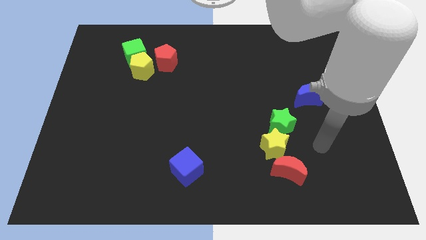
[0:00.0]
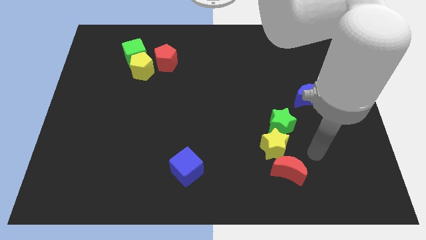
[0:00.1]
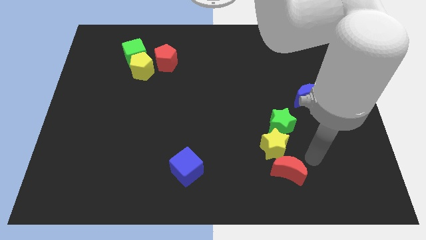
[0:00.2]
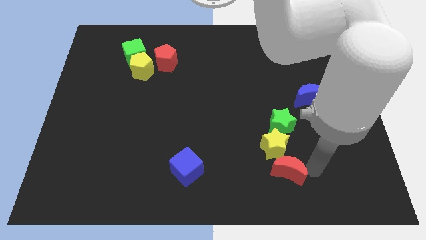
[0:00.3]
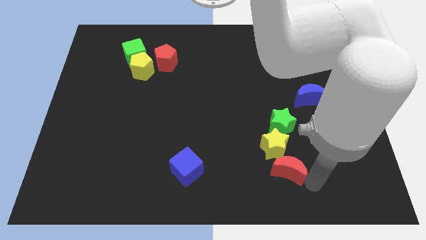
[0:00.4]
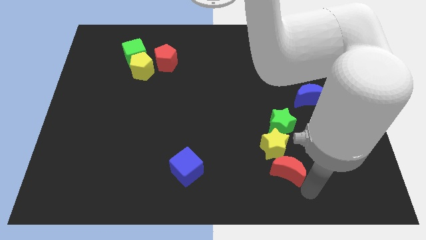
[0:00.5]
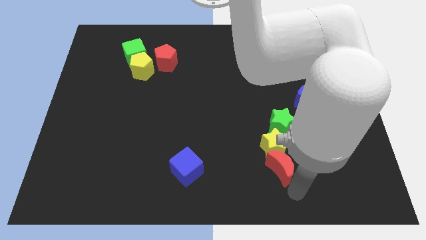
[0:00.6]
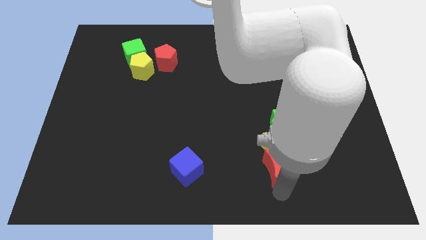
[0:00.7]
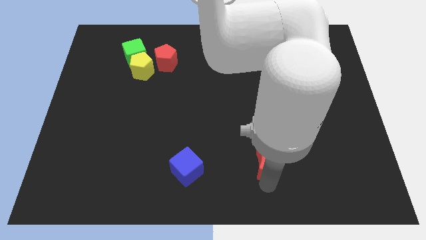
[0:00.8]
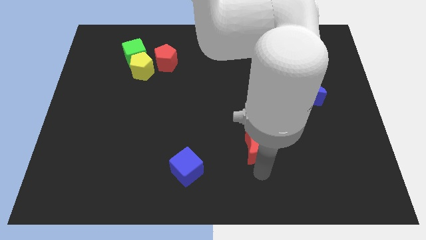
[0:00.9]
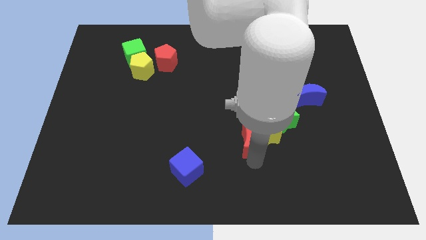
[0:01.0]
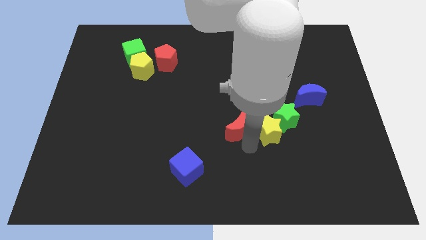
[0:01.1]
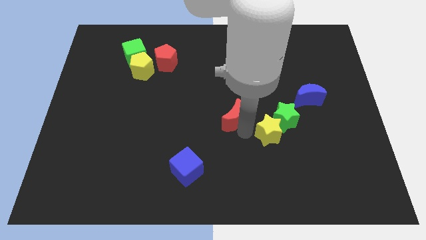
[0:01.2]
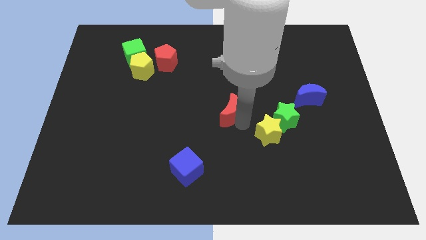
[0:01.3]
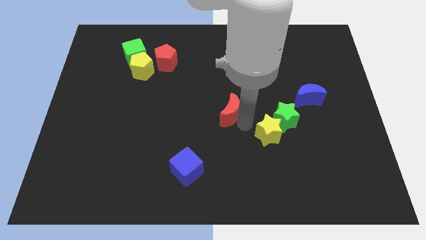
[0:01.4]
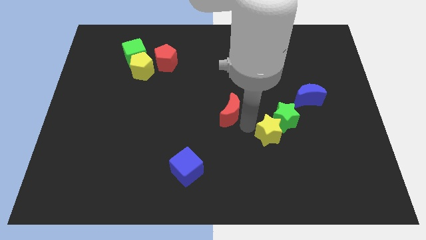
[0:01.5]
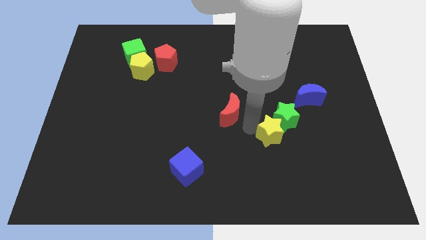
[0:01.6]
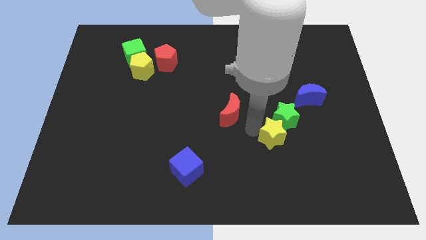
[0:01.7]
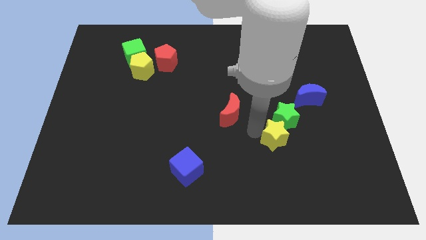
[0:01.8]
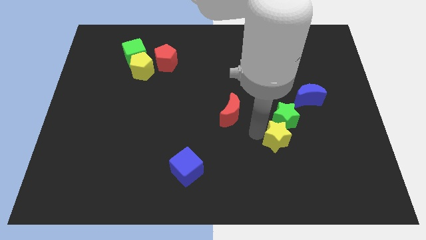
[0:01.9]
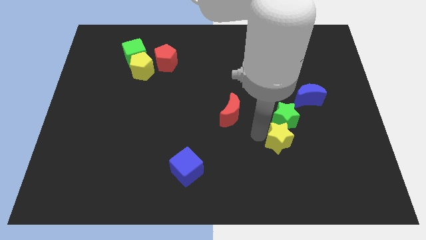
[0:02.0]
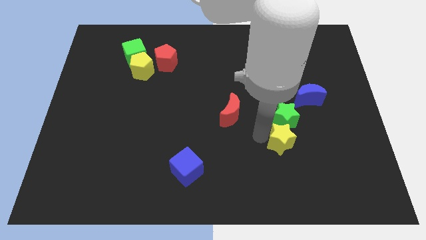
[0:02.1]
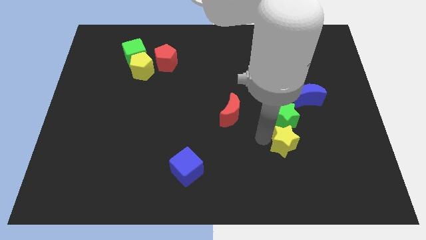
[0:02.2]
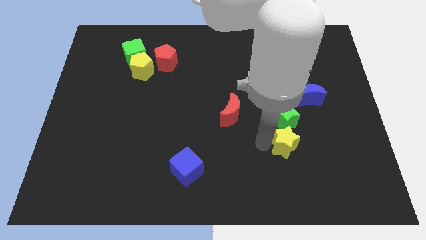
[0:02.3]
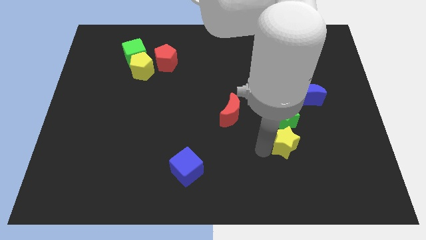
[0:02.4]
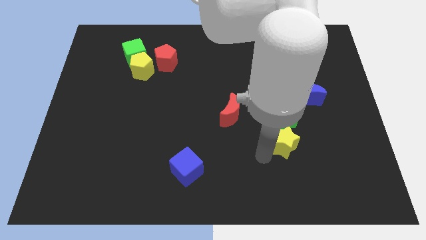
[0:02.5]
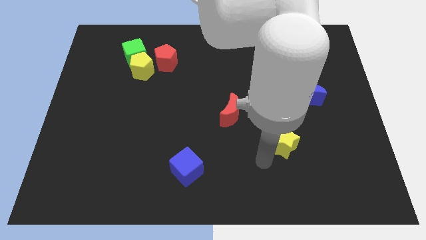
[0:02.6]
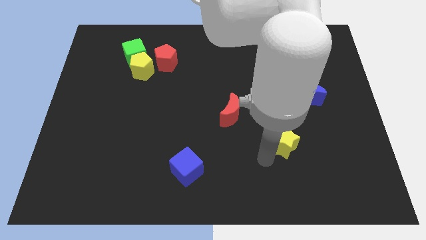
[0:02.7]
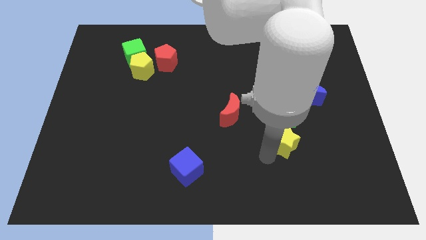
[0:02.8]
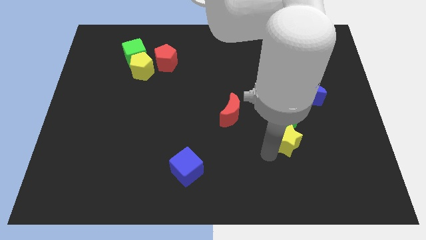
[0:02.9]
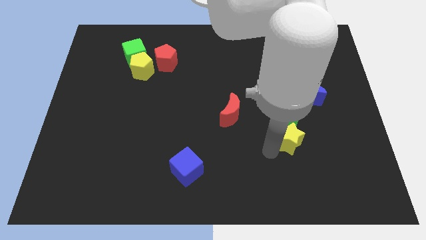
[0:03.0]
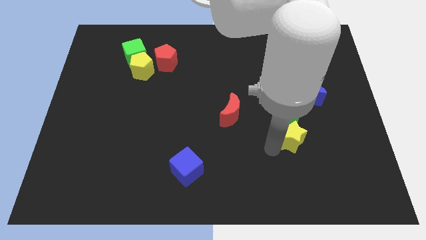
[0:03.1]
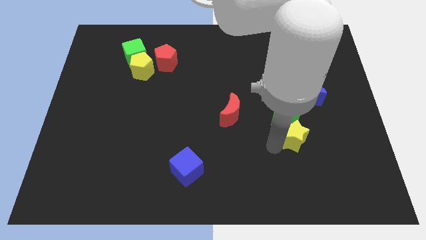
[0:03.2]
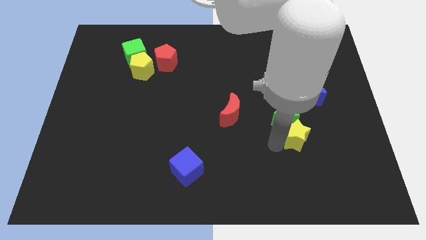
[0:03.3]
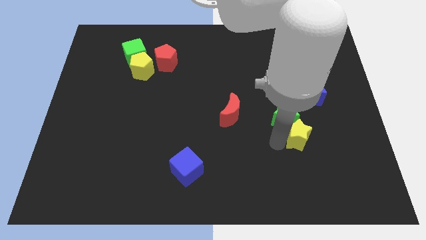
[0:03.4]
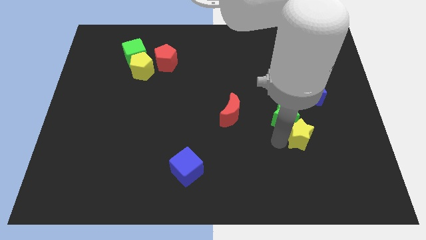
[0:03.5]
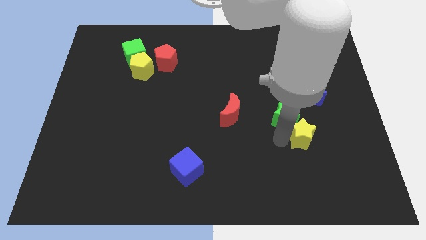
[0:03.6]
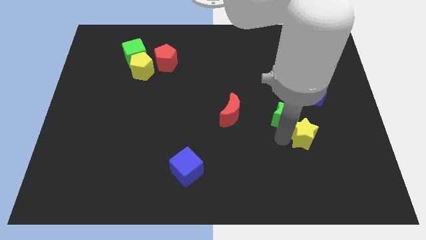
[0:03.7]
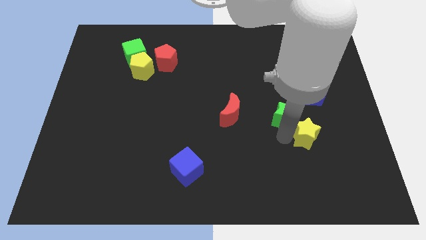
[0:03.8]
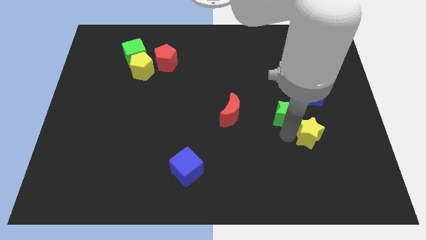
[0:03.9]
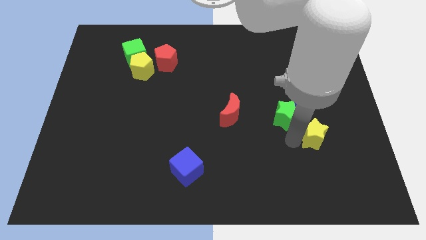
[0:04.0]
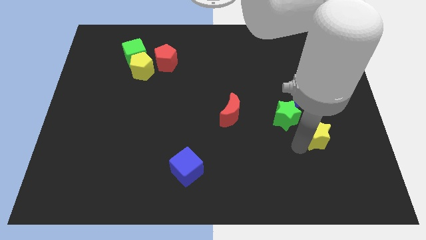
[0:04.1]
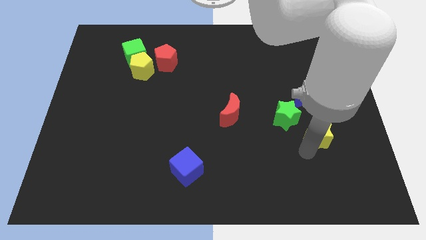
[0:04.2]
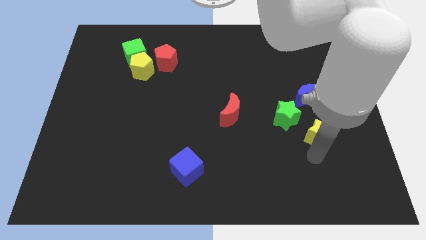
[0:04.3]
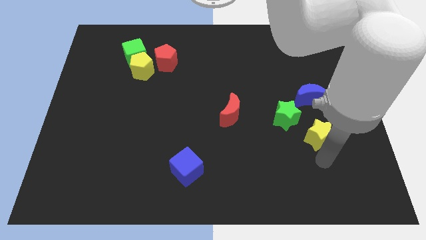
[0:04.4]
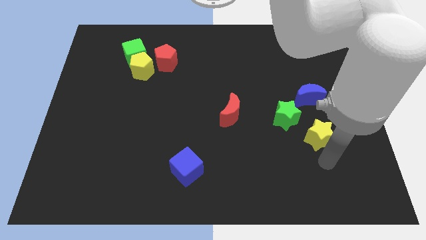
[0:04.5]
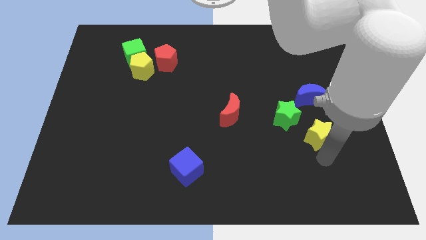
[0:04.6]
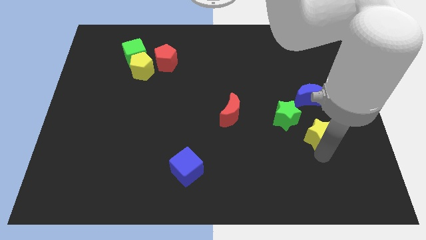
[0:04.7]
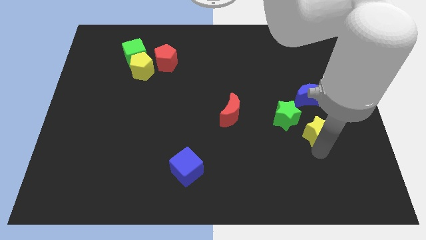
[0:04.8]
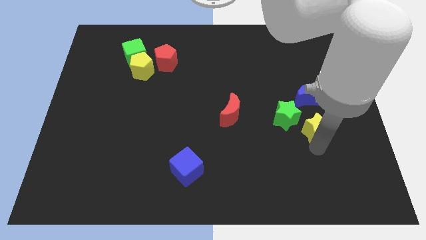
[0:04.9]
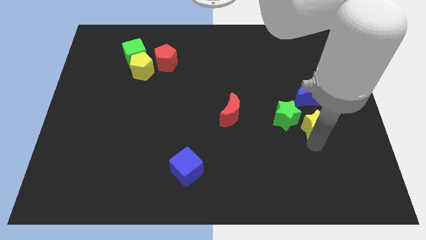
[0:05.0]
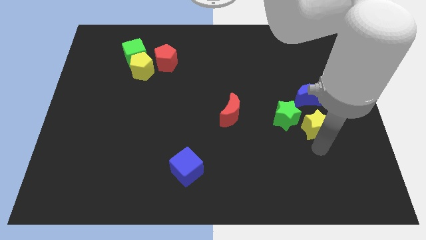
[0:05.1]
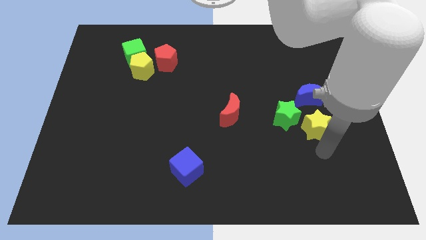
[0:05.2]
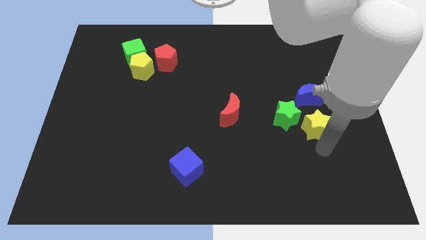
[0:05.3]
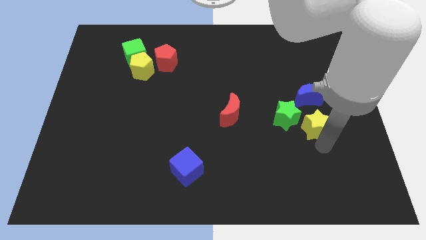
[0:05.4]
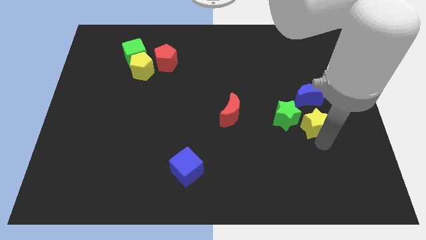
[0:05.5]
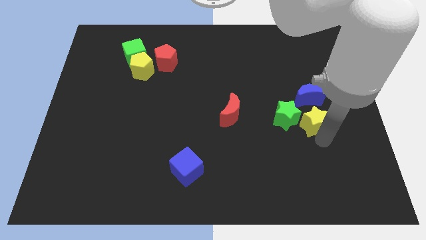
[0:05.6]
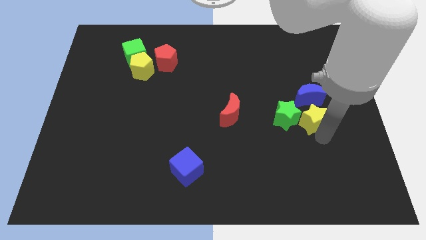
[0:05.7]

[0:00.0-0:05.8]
slide the yellow star to the top right of the green star
